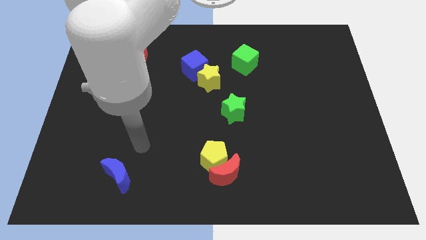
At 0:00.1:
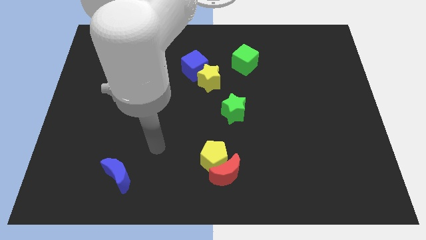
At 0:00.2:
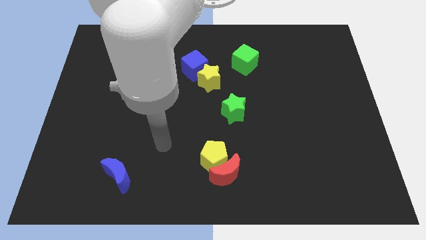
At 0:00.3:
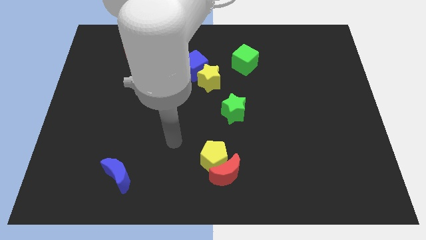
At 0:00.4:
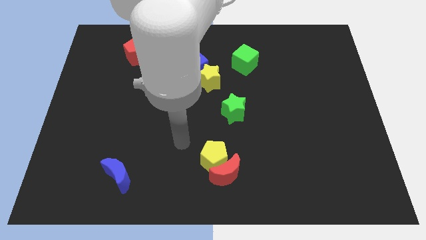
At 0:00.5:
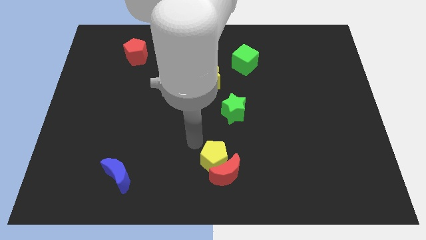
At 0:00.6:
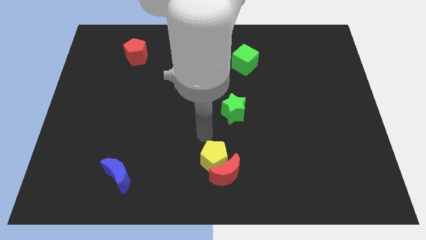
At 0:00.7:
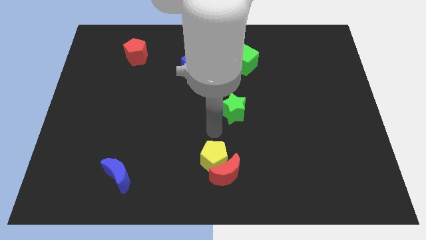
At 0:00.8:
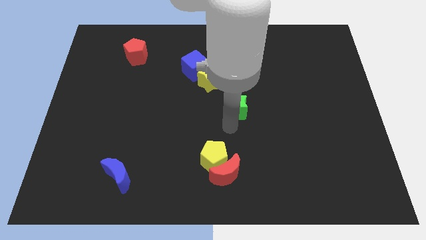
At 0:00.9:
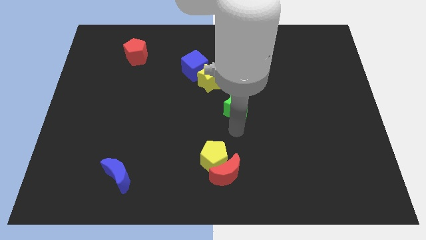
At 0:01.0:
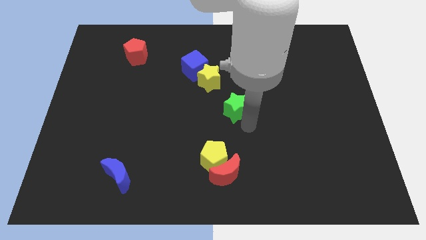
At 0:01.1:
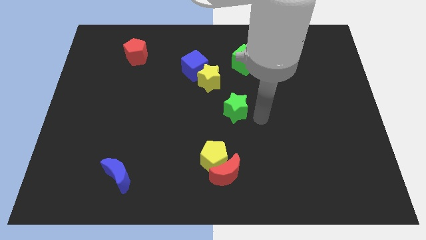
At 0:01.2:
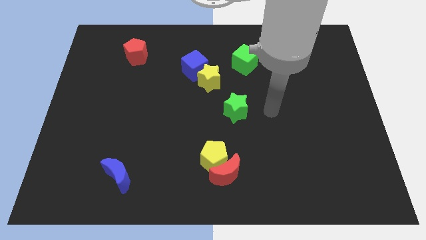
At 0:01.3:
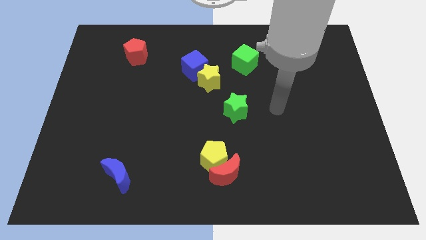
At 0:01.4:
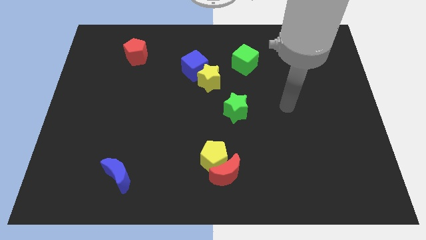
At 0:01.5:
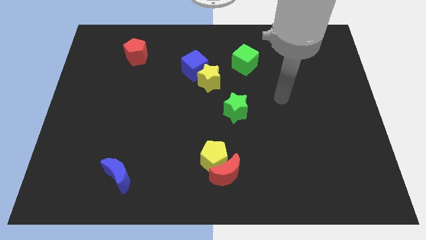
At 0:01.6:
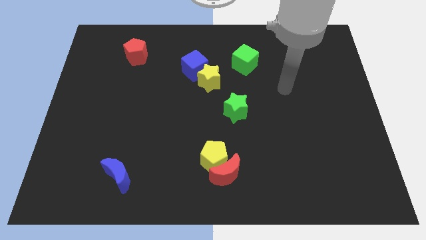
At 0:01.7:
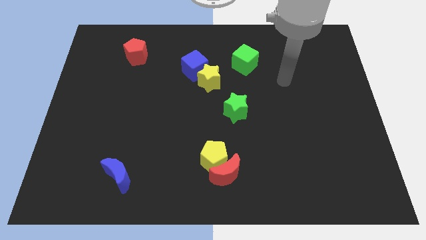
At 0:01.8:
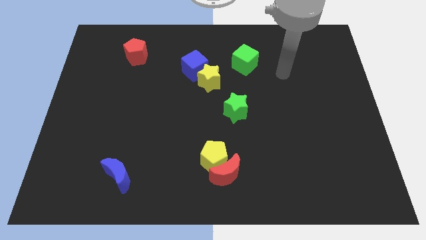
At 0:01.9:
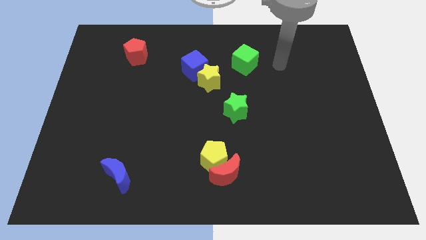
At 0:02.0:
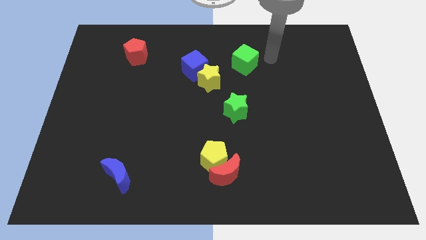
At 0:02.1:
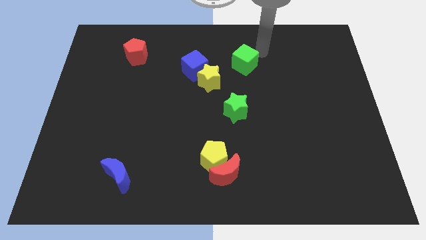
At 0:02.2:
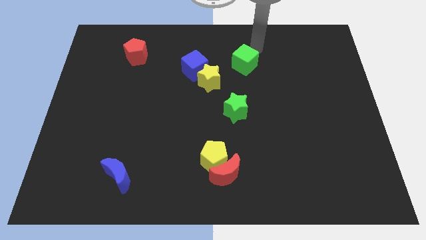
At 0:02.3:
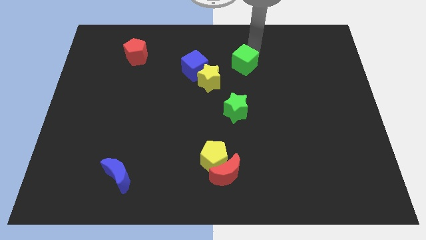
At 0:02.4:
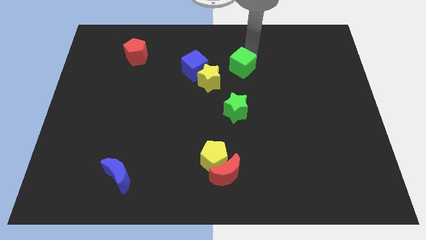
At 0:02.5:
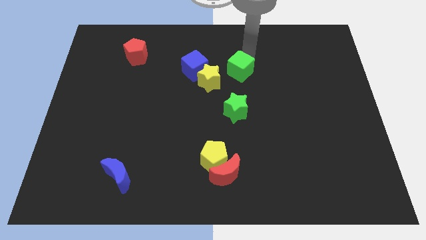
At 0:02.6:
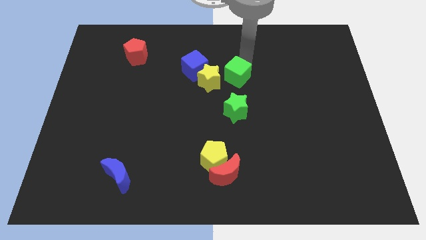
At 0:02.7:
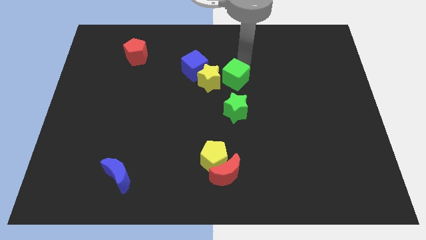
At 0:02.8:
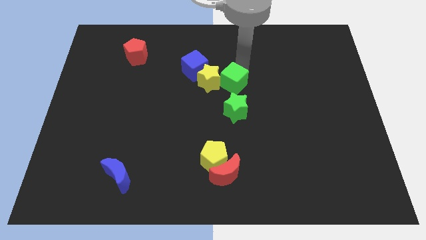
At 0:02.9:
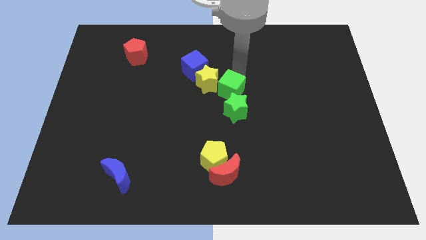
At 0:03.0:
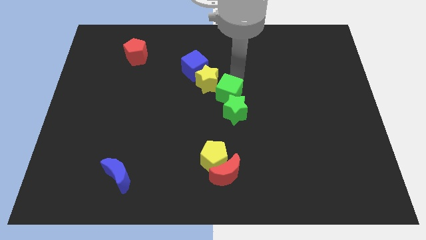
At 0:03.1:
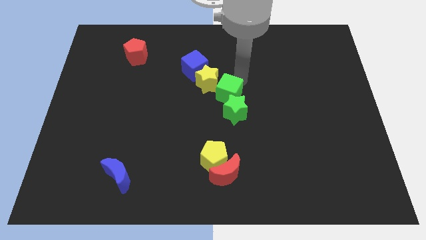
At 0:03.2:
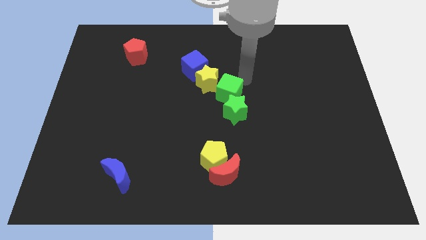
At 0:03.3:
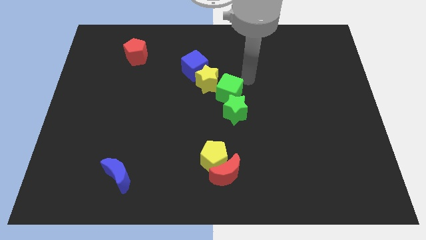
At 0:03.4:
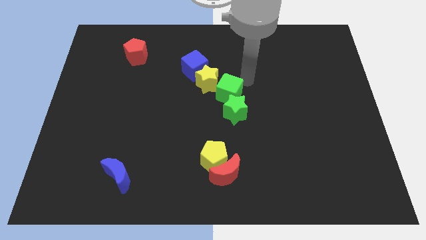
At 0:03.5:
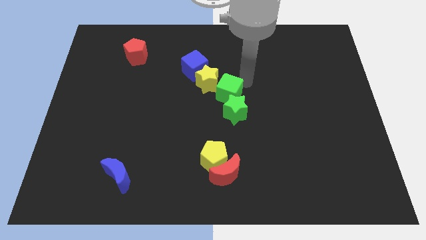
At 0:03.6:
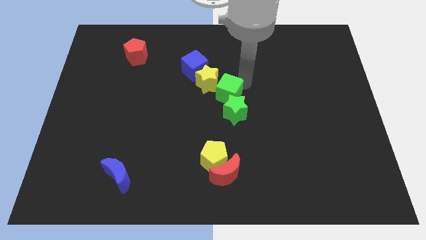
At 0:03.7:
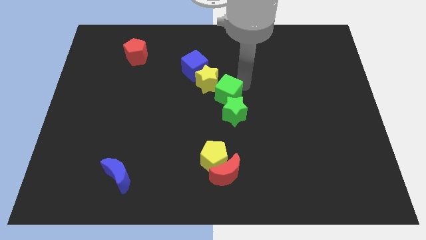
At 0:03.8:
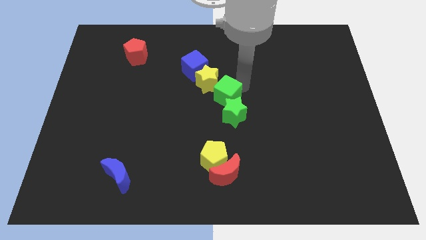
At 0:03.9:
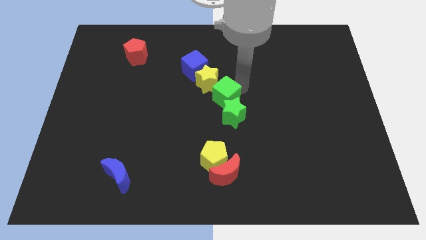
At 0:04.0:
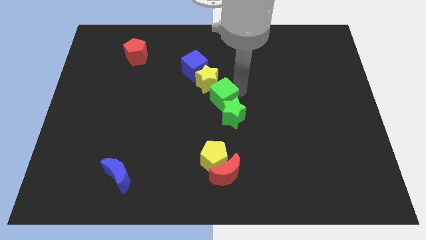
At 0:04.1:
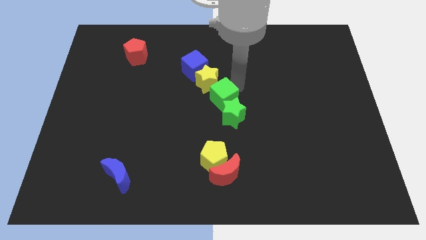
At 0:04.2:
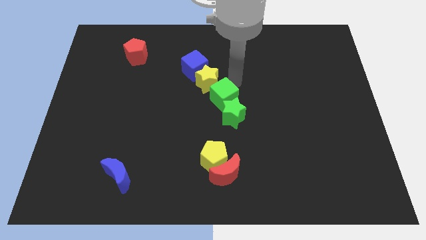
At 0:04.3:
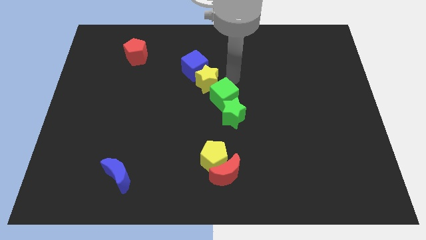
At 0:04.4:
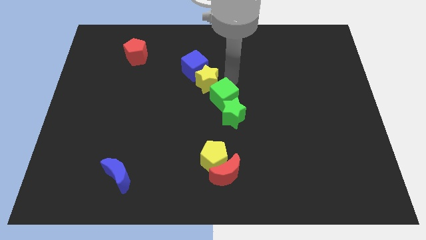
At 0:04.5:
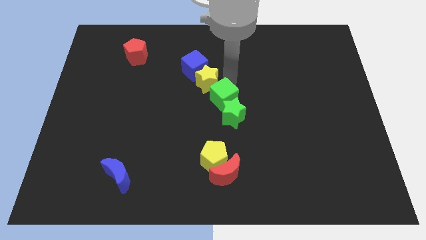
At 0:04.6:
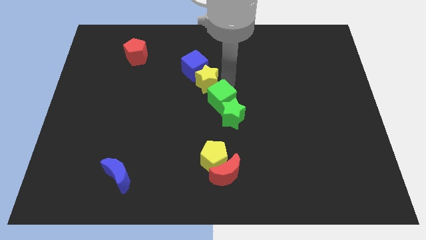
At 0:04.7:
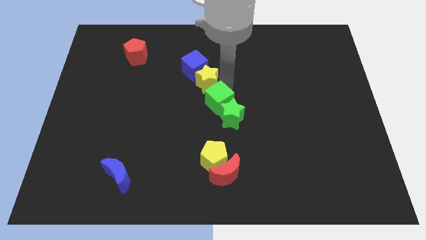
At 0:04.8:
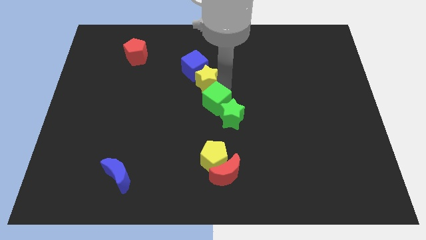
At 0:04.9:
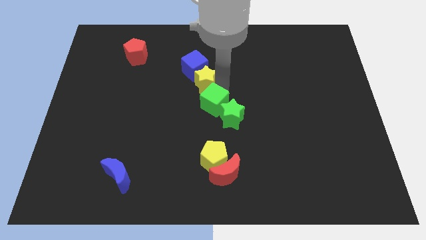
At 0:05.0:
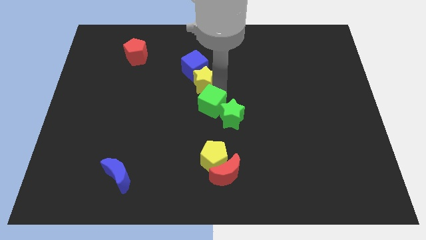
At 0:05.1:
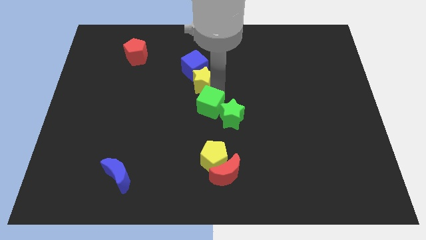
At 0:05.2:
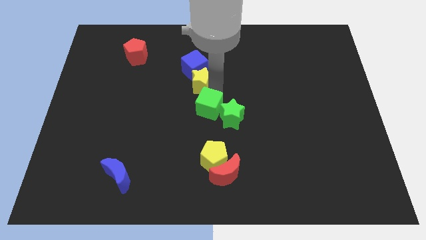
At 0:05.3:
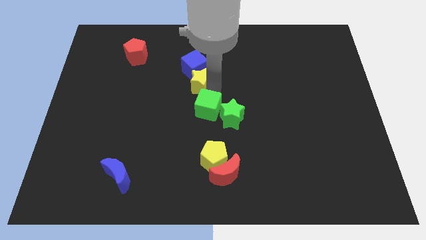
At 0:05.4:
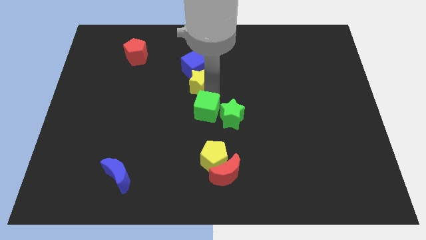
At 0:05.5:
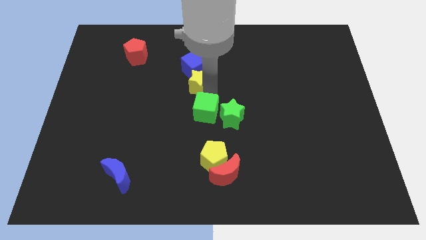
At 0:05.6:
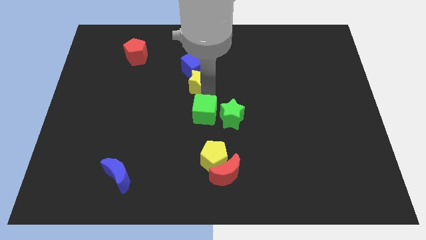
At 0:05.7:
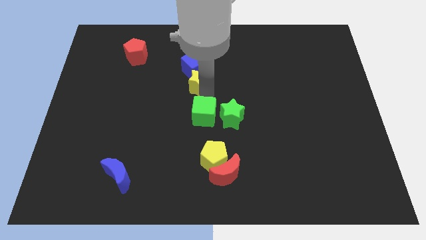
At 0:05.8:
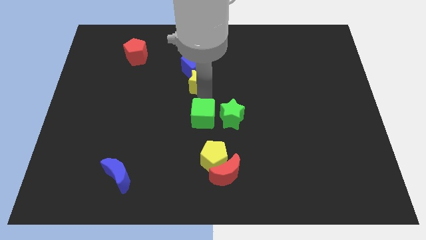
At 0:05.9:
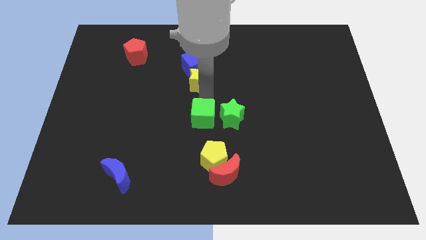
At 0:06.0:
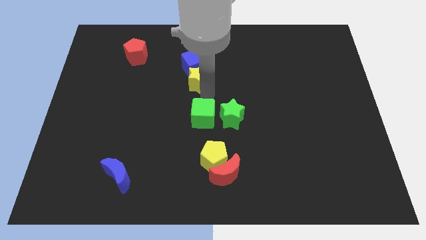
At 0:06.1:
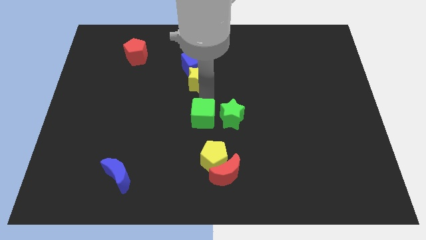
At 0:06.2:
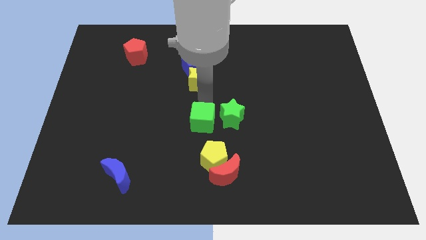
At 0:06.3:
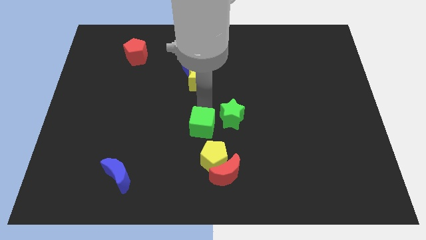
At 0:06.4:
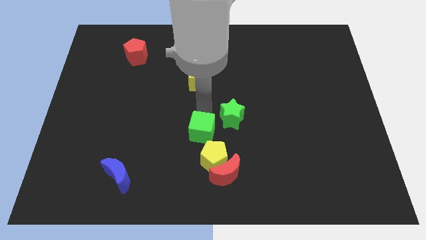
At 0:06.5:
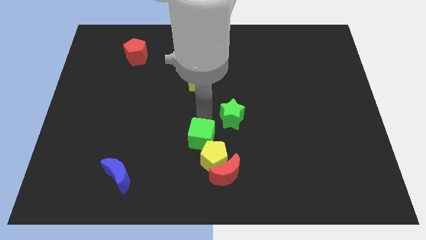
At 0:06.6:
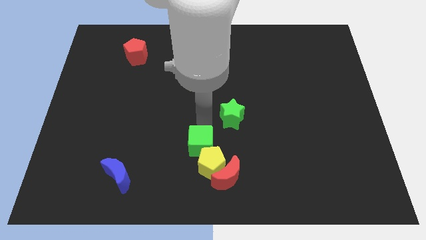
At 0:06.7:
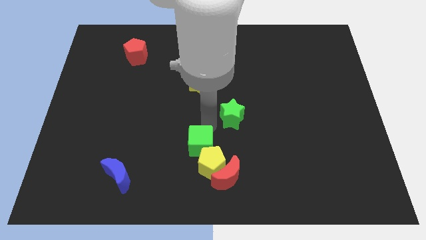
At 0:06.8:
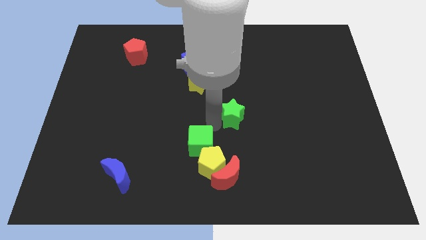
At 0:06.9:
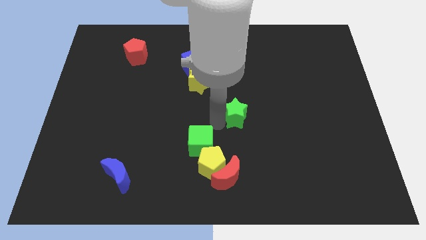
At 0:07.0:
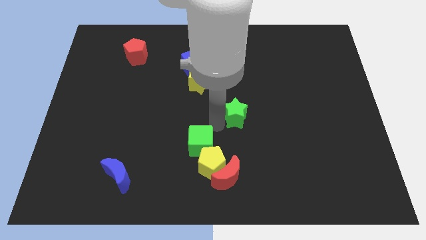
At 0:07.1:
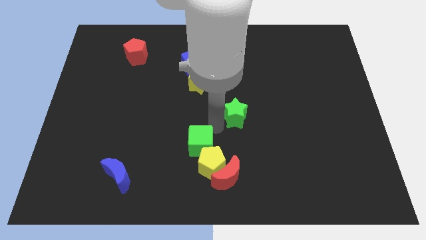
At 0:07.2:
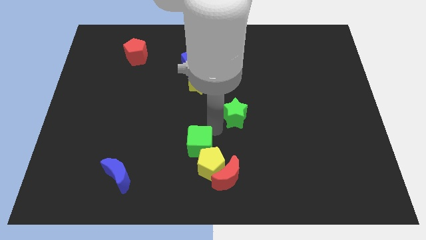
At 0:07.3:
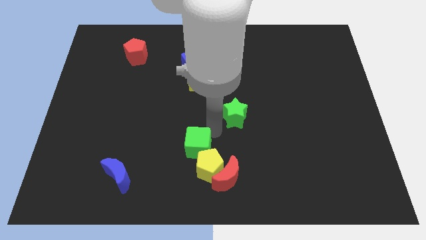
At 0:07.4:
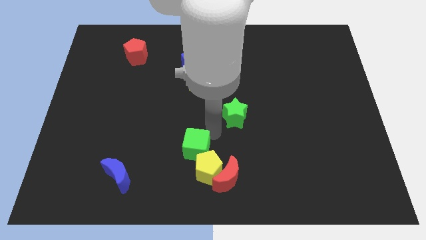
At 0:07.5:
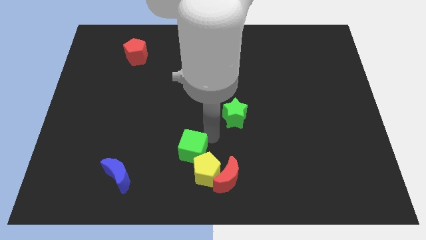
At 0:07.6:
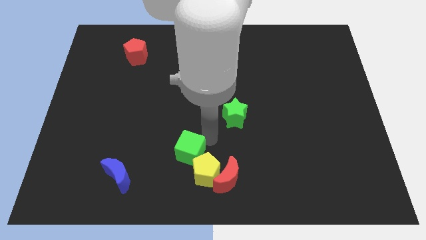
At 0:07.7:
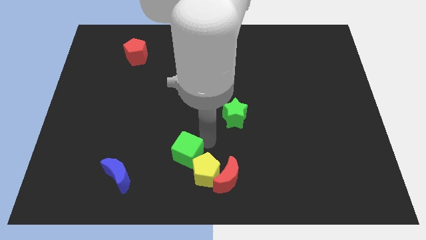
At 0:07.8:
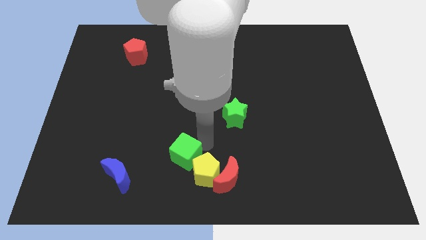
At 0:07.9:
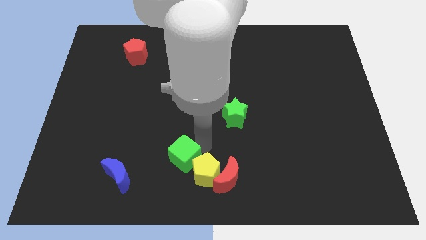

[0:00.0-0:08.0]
push the green cube just right of the blue moon
